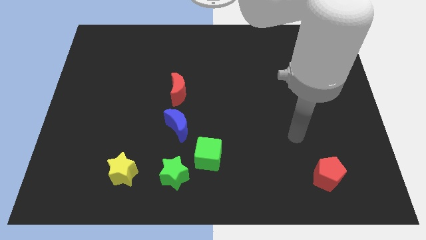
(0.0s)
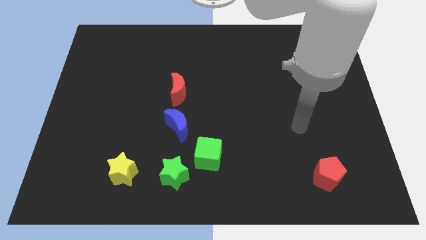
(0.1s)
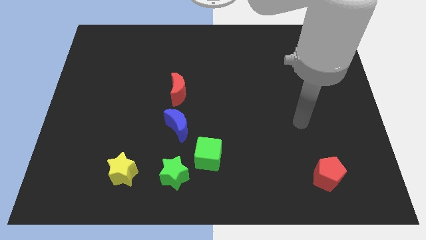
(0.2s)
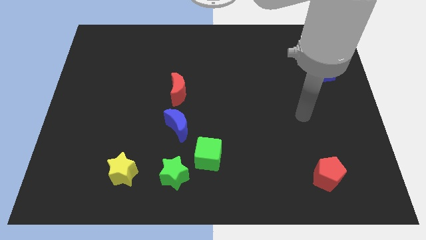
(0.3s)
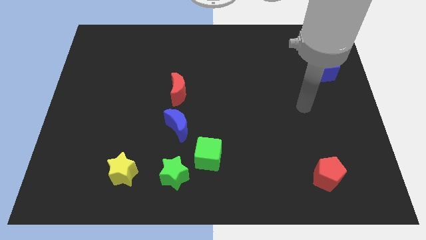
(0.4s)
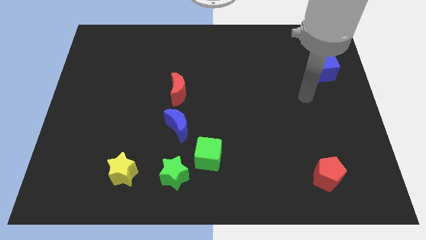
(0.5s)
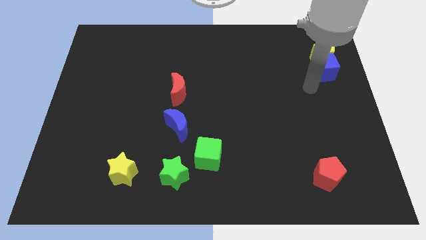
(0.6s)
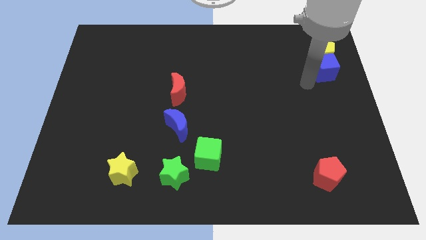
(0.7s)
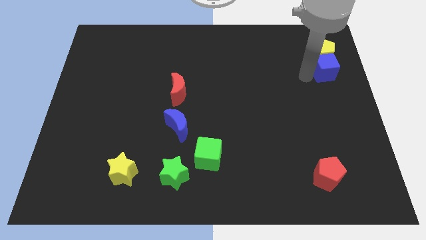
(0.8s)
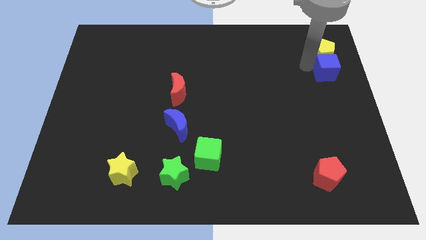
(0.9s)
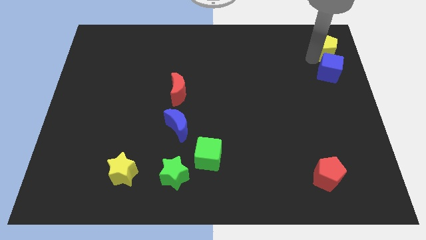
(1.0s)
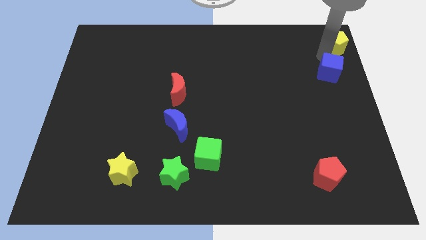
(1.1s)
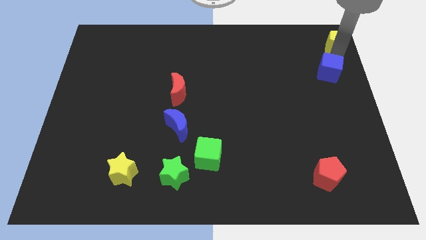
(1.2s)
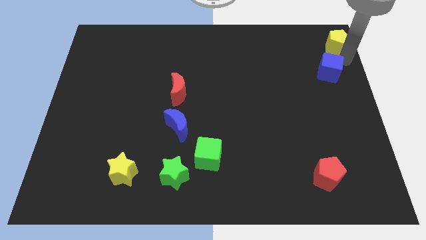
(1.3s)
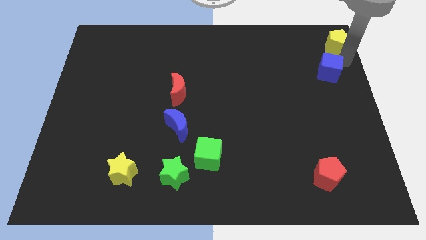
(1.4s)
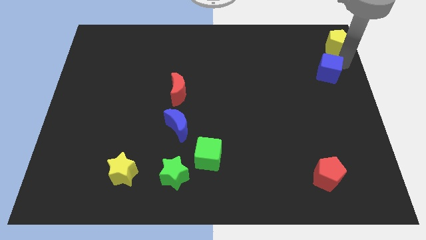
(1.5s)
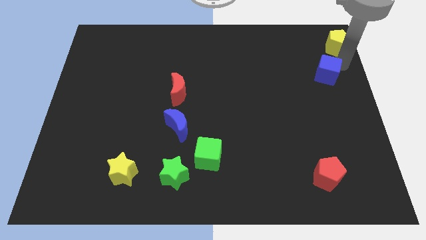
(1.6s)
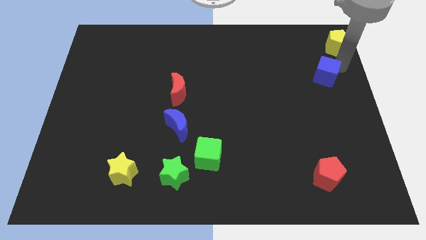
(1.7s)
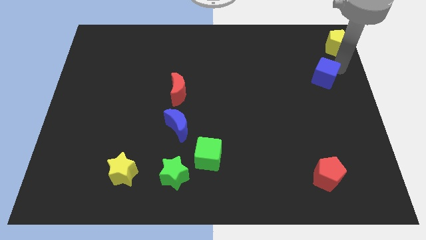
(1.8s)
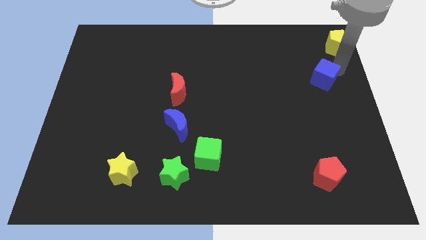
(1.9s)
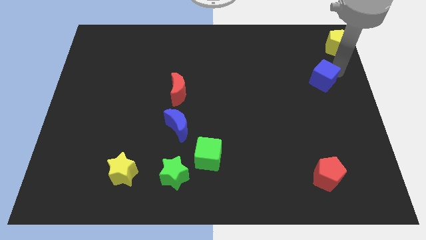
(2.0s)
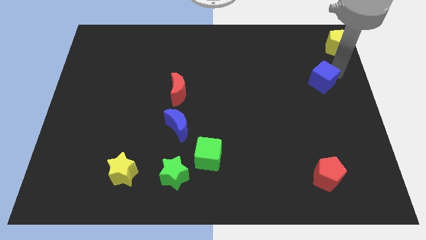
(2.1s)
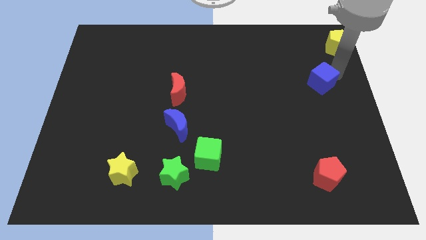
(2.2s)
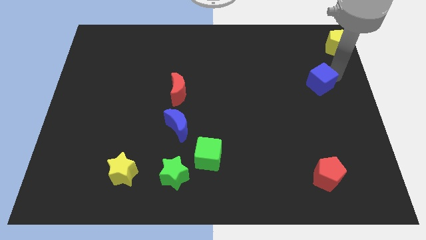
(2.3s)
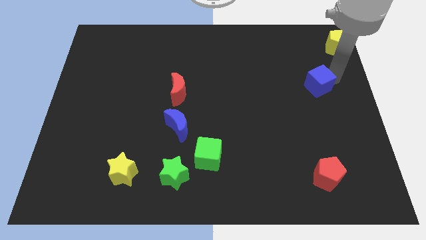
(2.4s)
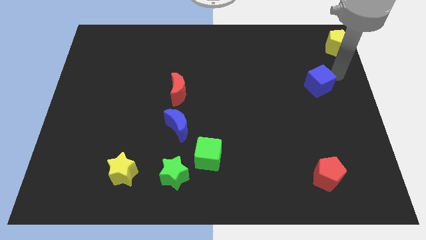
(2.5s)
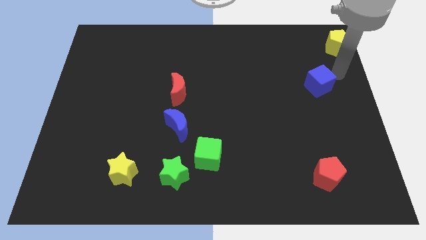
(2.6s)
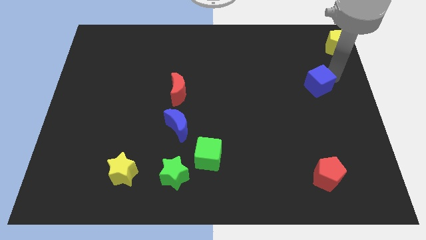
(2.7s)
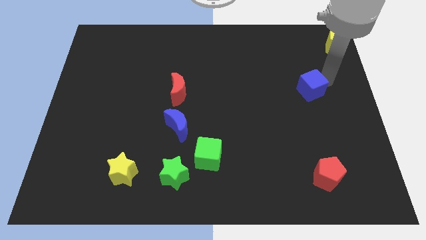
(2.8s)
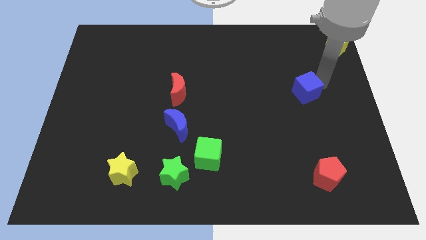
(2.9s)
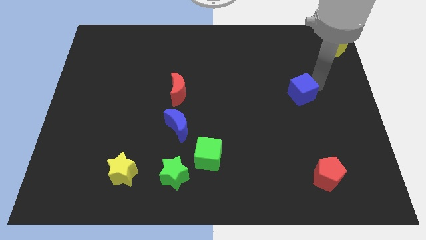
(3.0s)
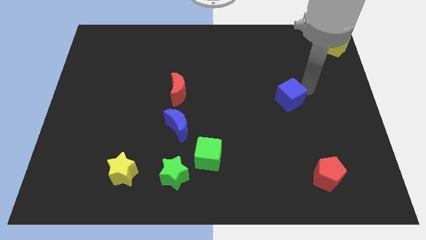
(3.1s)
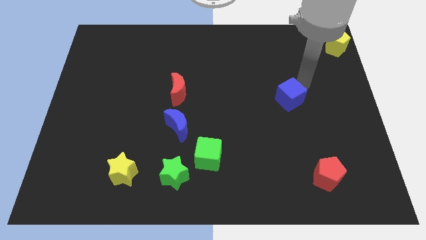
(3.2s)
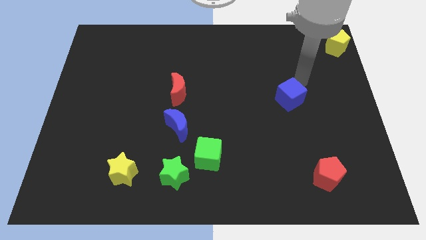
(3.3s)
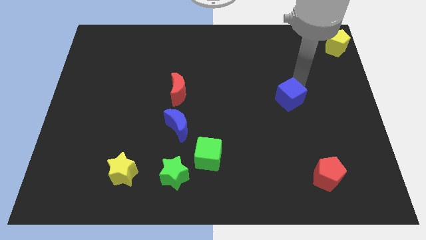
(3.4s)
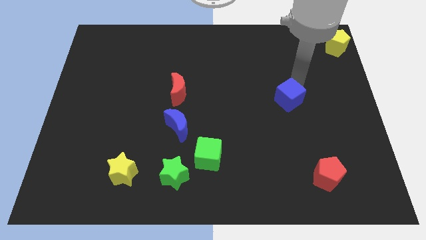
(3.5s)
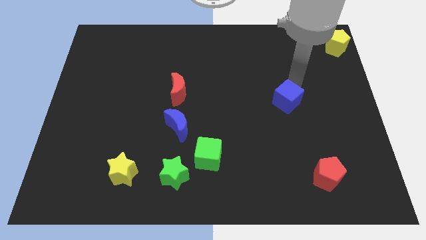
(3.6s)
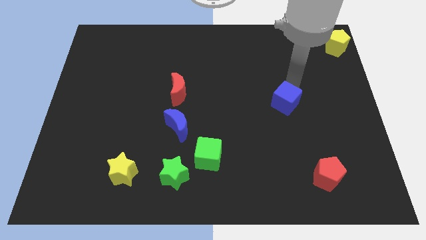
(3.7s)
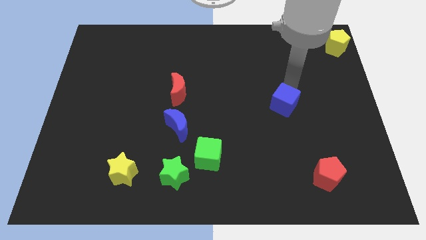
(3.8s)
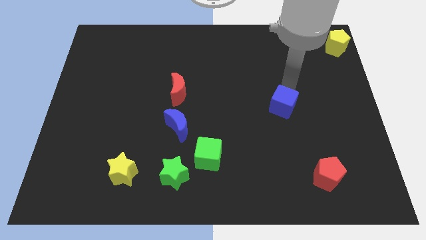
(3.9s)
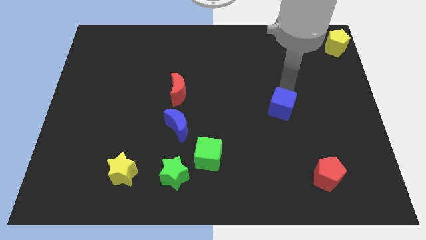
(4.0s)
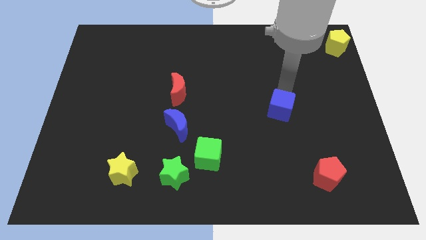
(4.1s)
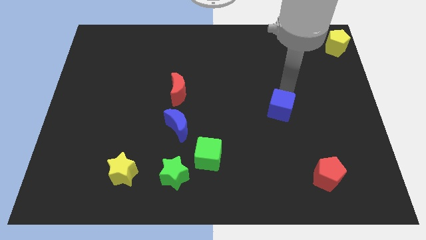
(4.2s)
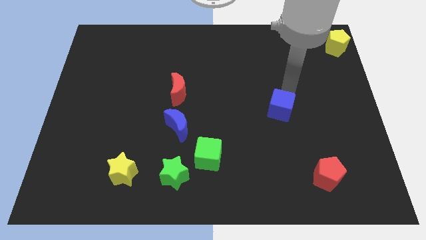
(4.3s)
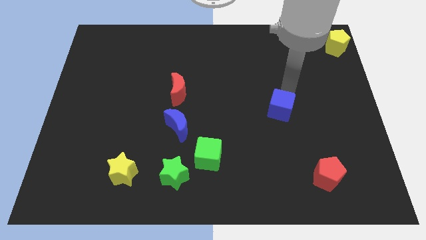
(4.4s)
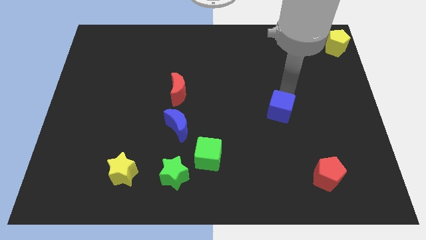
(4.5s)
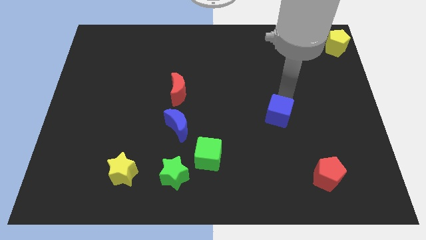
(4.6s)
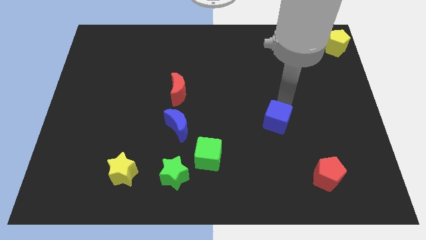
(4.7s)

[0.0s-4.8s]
push the blue cube down and to the left diagonally

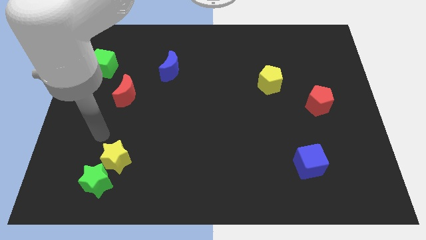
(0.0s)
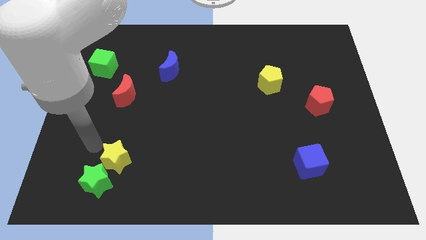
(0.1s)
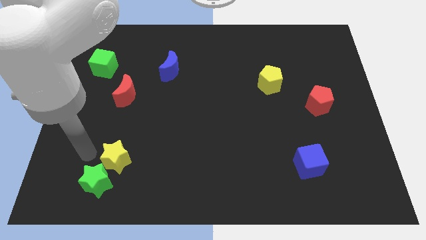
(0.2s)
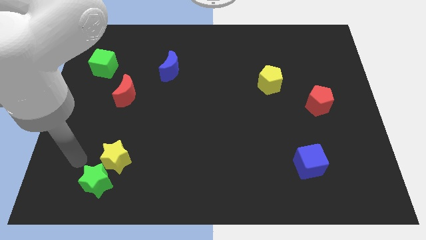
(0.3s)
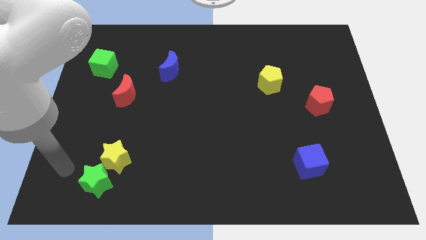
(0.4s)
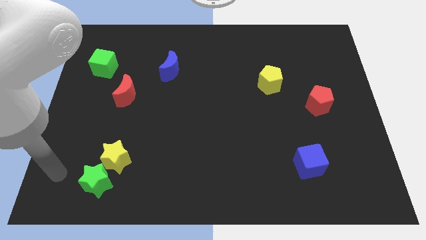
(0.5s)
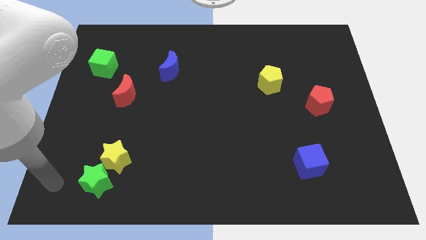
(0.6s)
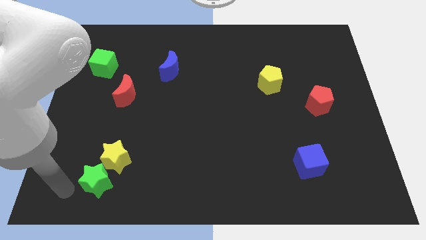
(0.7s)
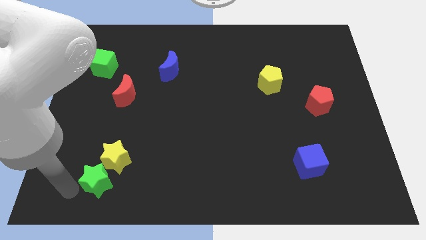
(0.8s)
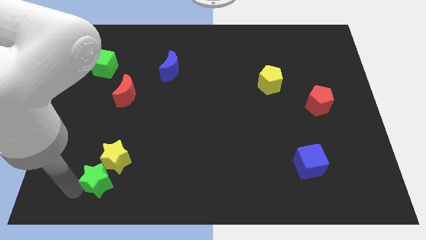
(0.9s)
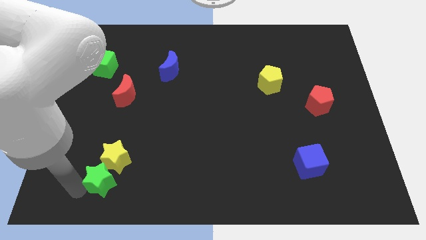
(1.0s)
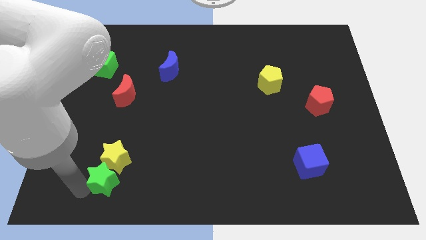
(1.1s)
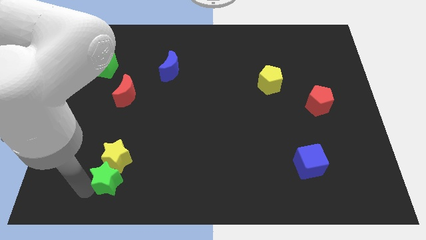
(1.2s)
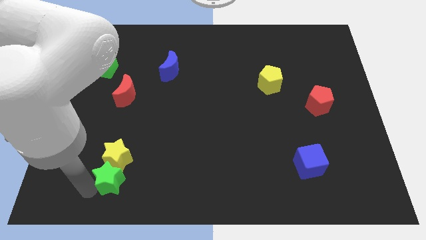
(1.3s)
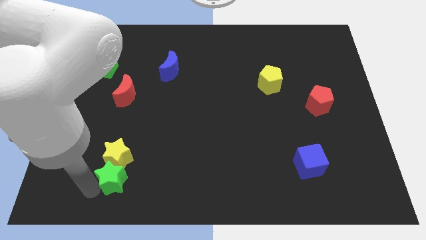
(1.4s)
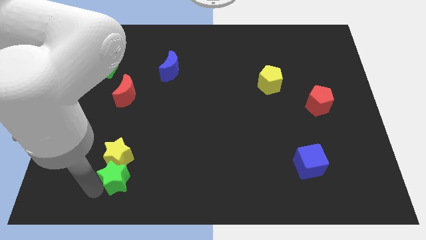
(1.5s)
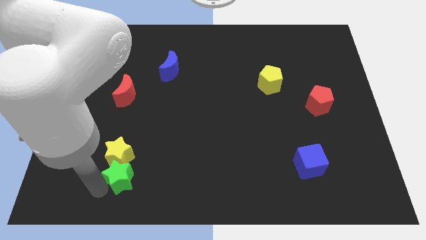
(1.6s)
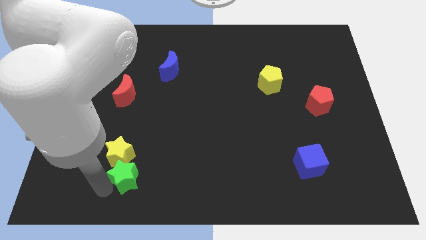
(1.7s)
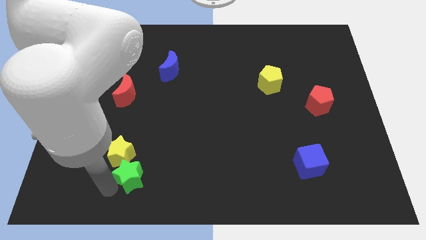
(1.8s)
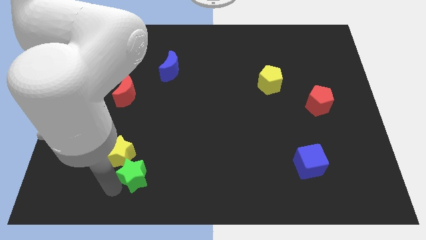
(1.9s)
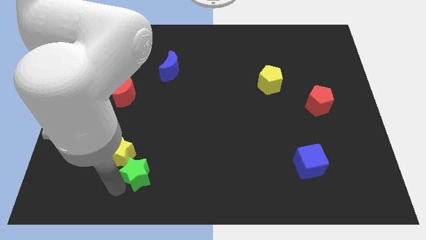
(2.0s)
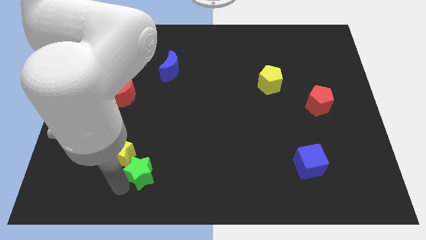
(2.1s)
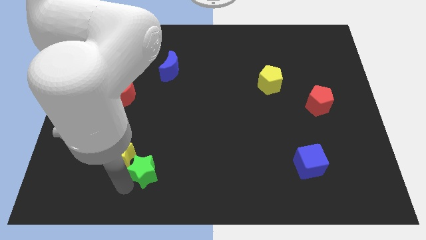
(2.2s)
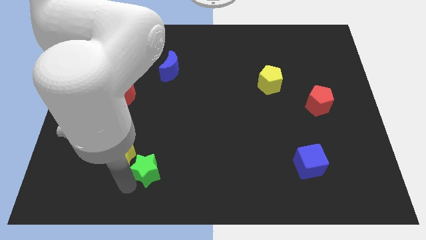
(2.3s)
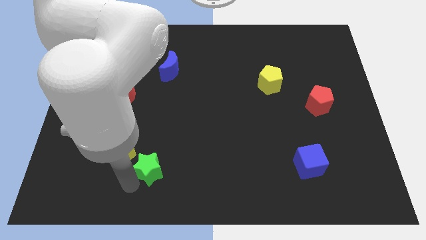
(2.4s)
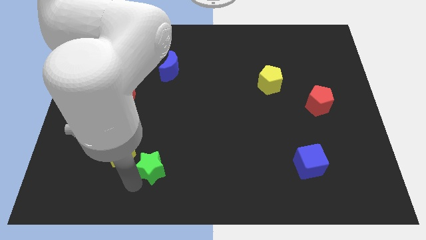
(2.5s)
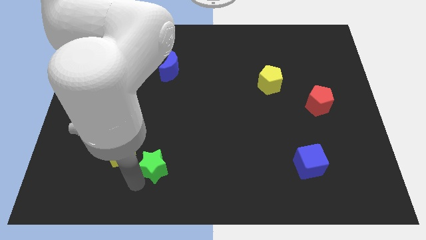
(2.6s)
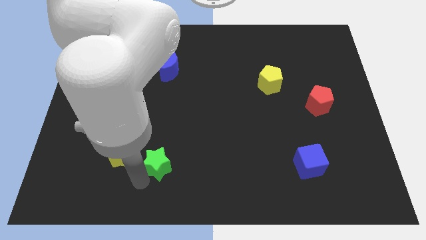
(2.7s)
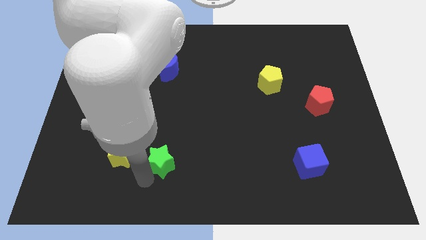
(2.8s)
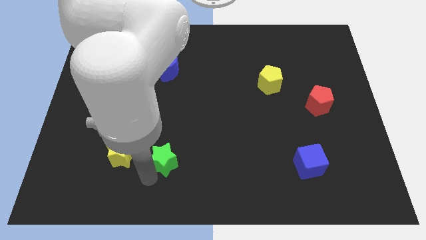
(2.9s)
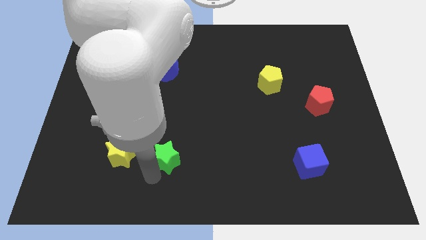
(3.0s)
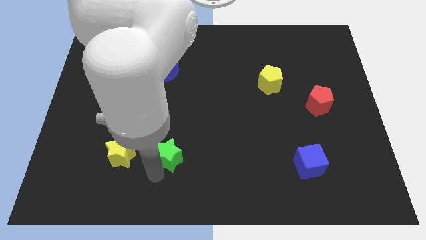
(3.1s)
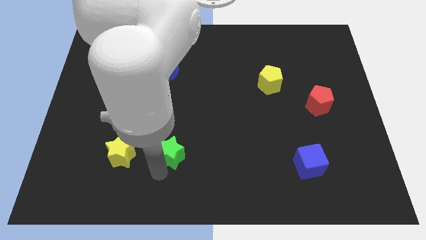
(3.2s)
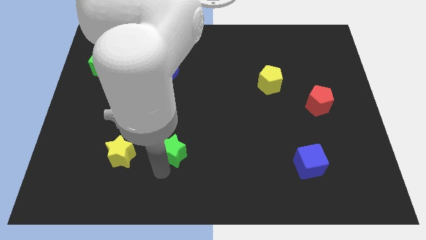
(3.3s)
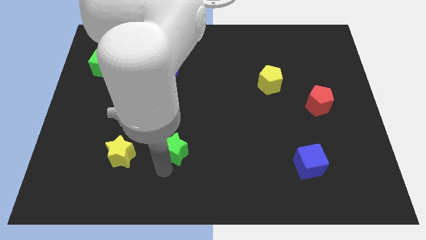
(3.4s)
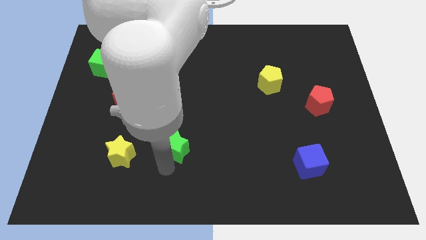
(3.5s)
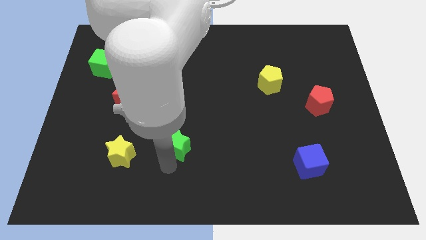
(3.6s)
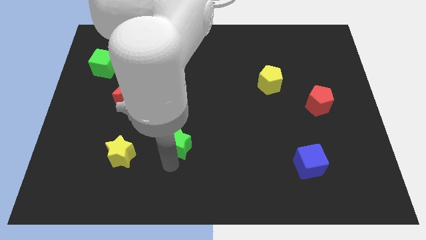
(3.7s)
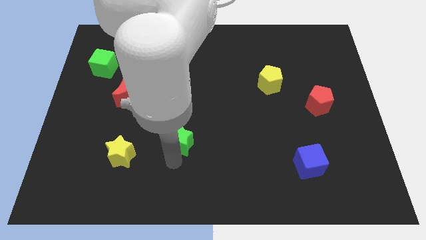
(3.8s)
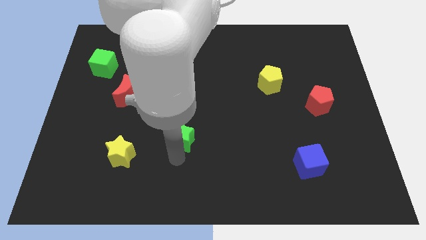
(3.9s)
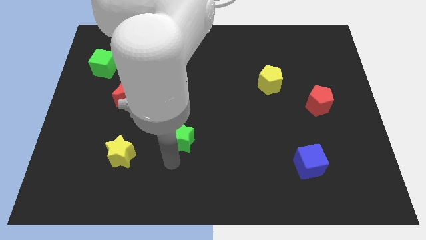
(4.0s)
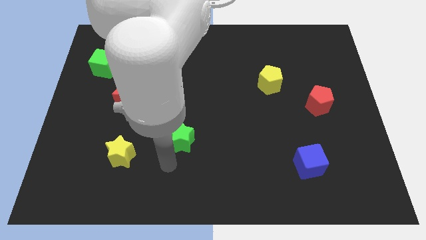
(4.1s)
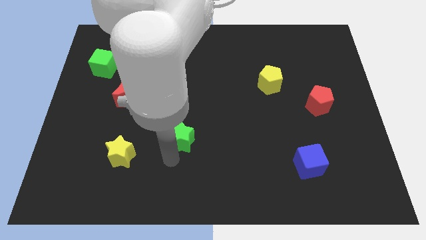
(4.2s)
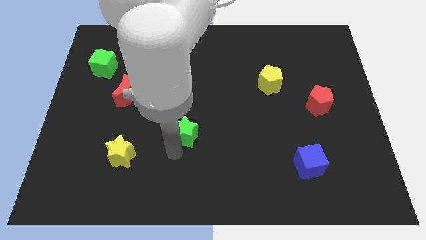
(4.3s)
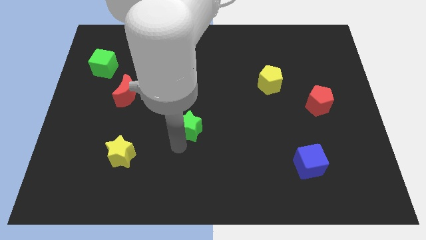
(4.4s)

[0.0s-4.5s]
push the green star upwards and right diagonally
